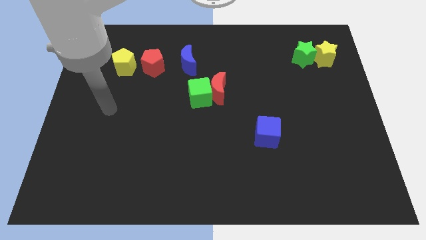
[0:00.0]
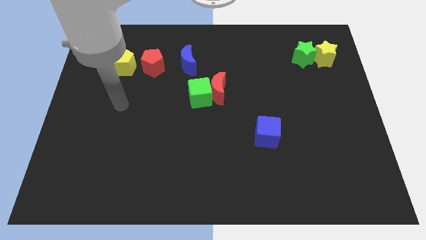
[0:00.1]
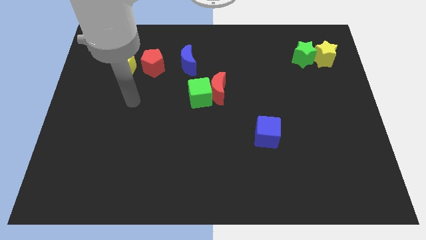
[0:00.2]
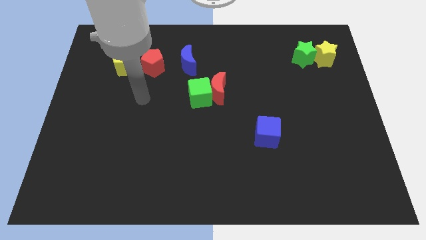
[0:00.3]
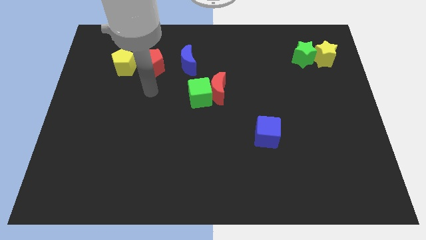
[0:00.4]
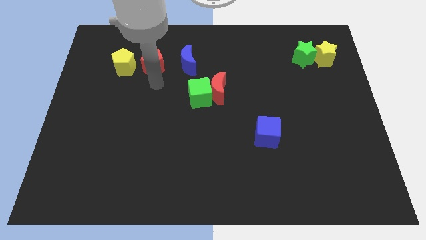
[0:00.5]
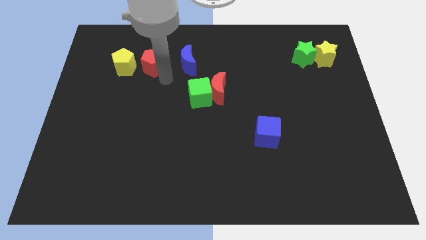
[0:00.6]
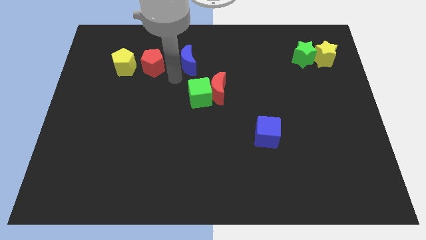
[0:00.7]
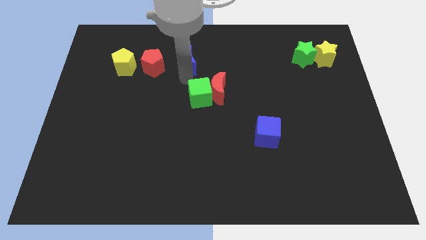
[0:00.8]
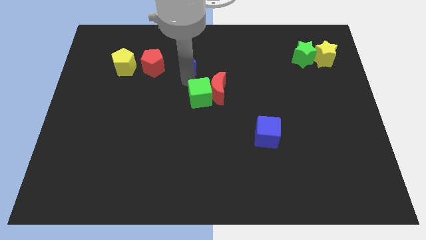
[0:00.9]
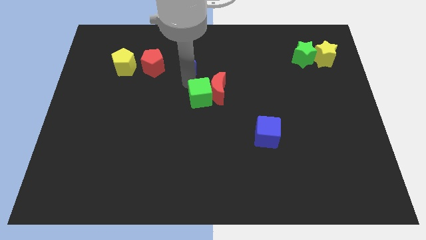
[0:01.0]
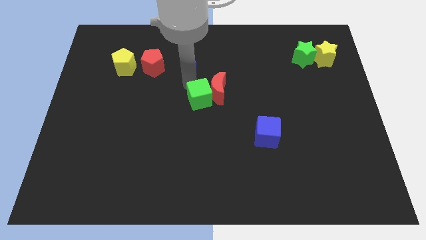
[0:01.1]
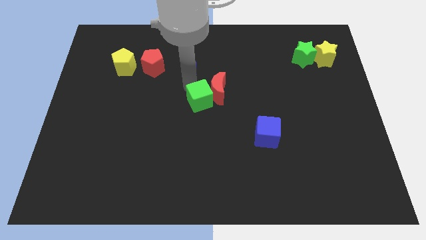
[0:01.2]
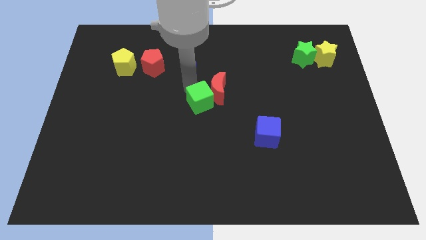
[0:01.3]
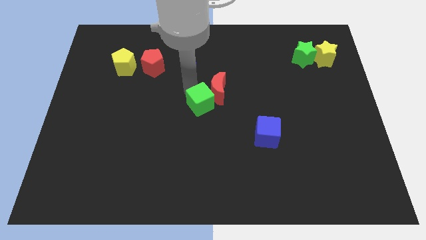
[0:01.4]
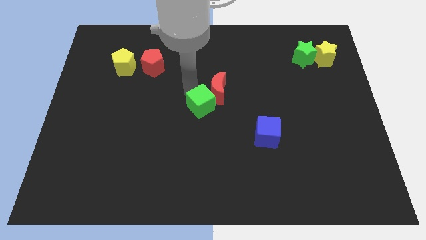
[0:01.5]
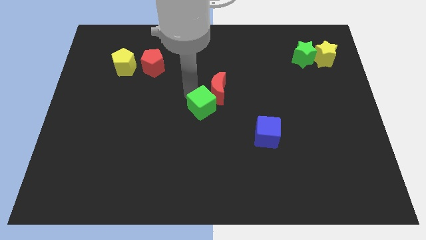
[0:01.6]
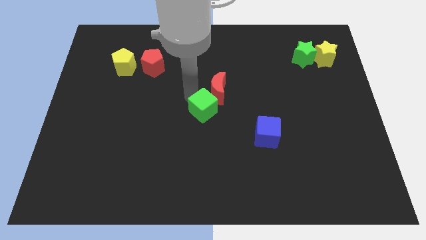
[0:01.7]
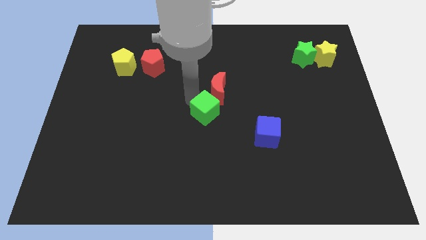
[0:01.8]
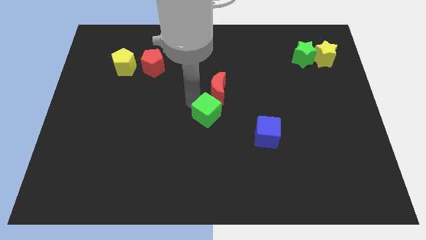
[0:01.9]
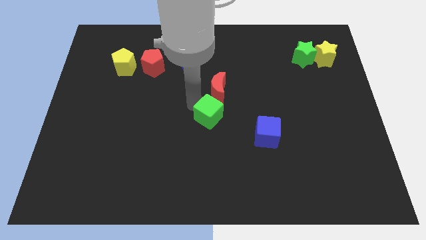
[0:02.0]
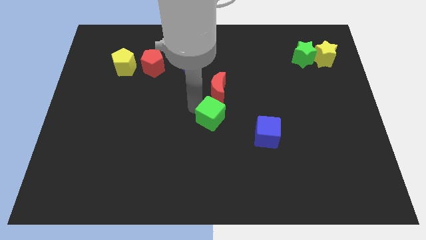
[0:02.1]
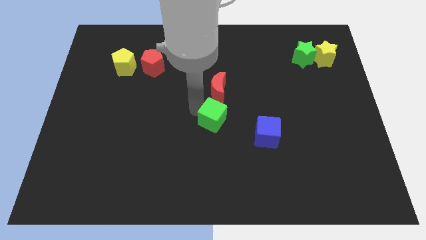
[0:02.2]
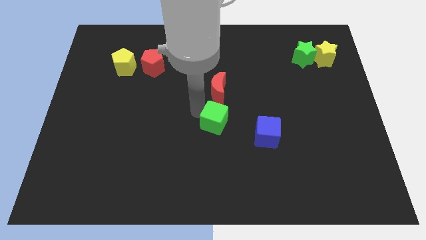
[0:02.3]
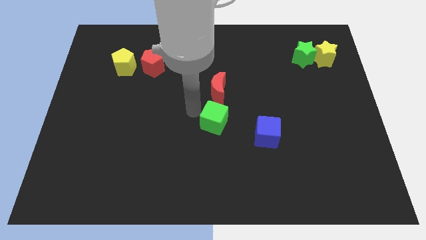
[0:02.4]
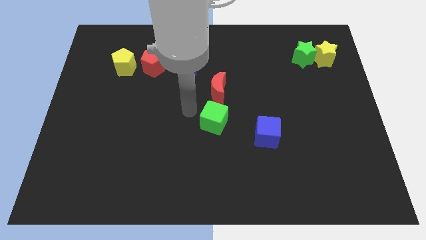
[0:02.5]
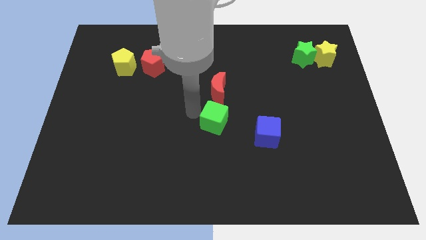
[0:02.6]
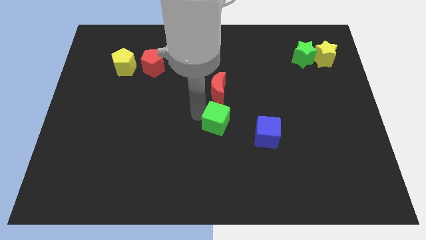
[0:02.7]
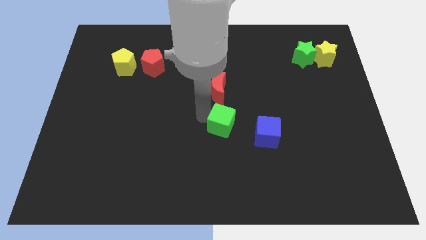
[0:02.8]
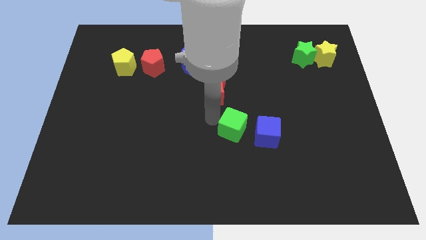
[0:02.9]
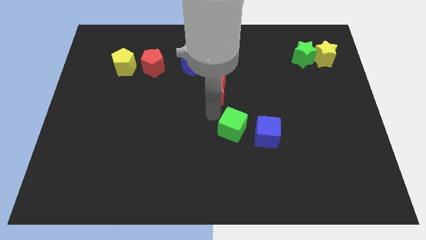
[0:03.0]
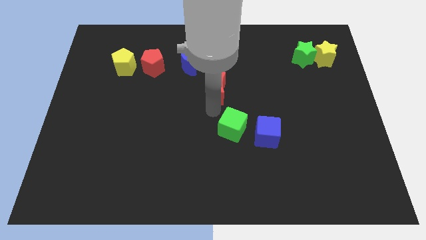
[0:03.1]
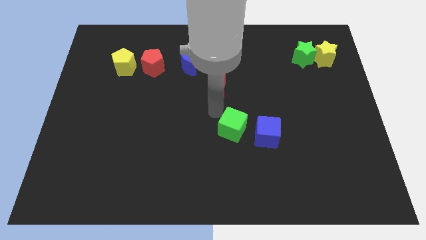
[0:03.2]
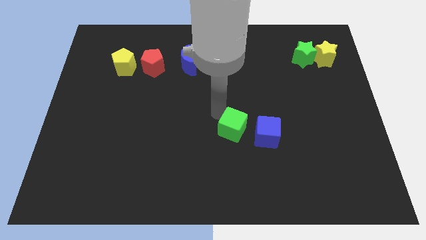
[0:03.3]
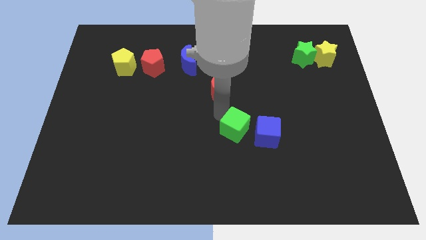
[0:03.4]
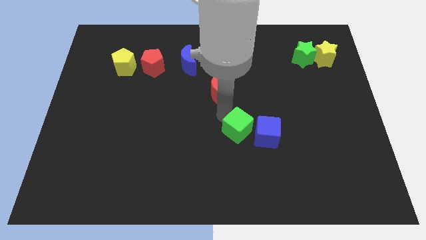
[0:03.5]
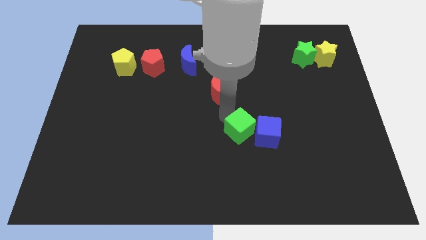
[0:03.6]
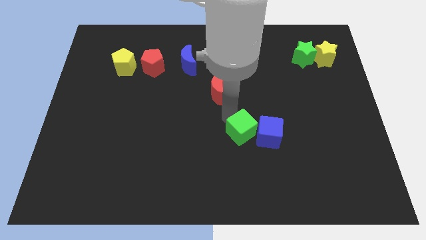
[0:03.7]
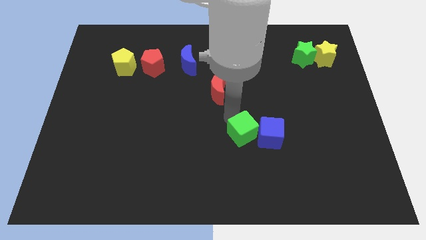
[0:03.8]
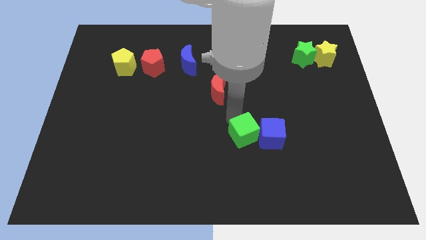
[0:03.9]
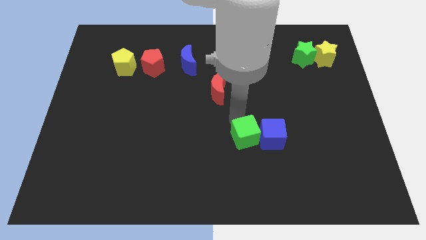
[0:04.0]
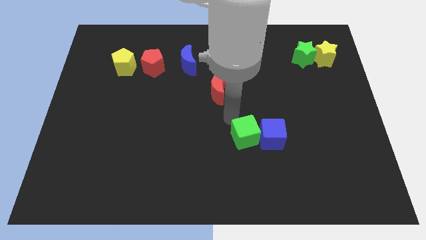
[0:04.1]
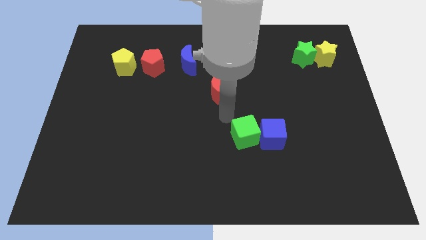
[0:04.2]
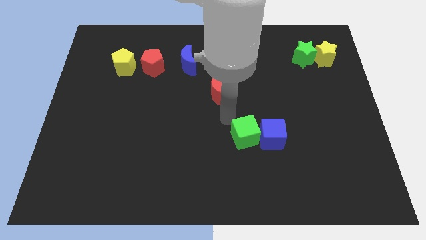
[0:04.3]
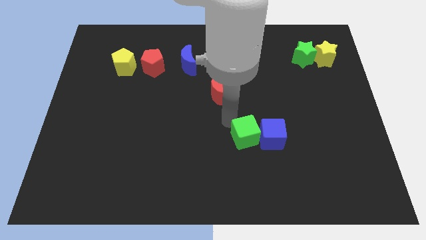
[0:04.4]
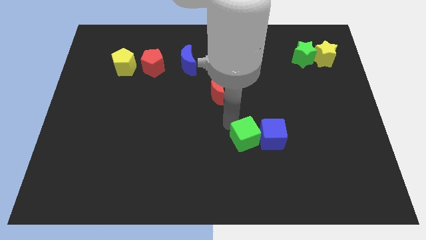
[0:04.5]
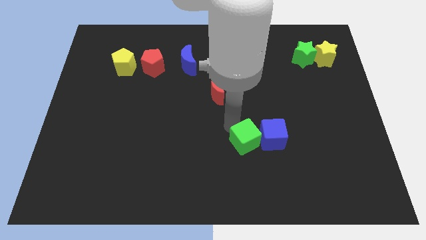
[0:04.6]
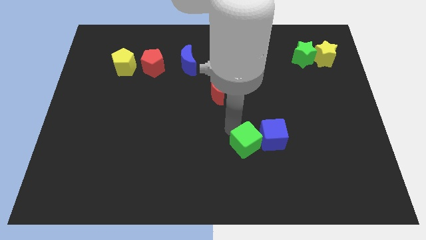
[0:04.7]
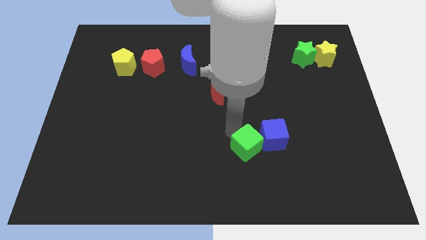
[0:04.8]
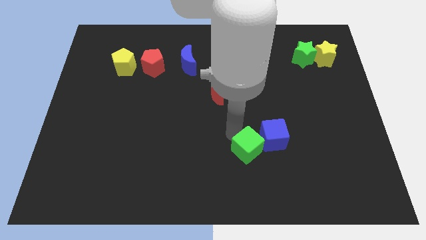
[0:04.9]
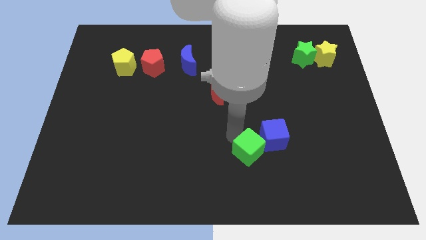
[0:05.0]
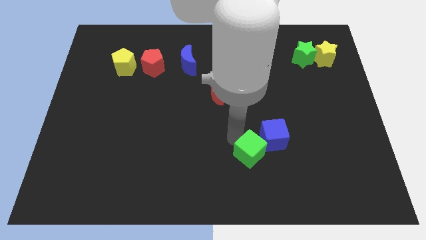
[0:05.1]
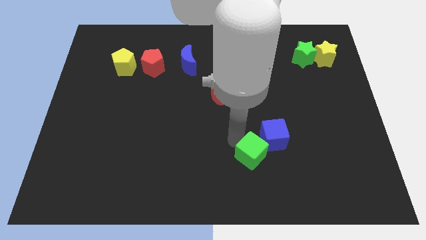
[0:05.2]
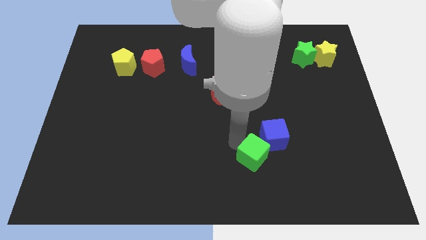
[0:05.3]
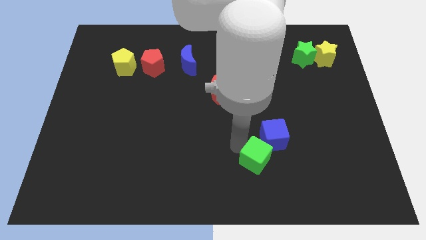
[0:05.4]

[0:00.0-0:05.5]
move the green cube down and right diagonally

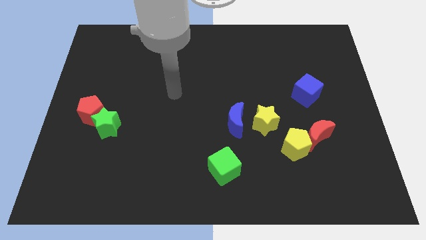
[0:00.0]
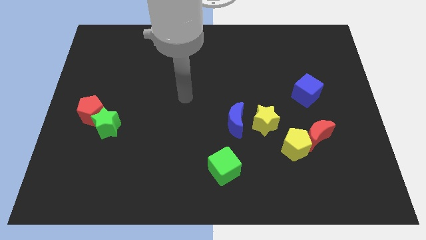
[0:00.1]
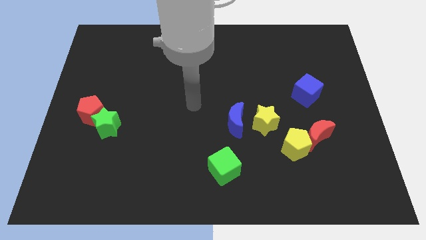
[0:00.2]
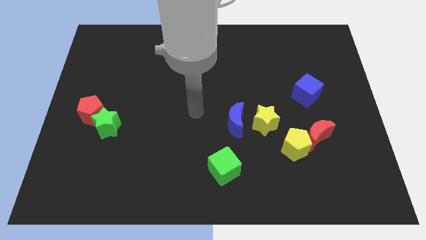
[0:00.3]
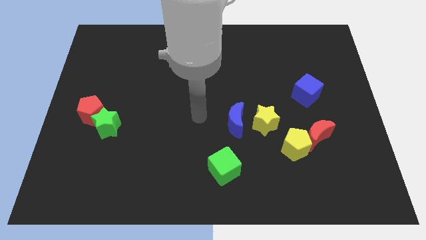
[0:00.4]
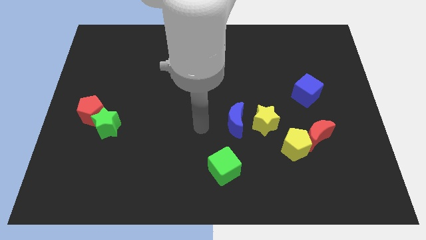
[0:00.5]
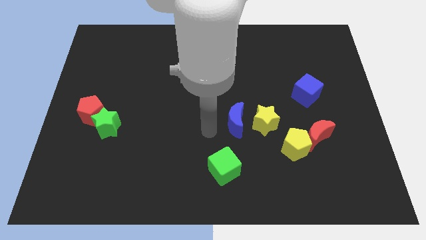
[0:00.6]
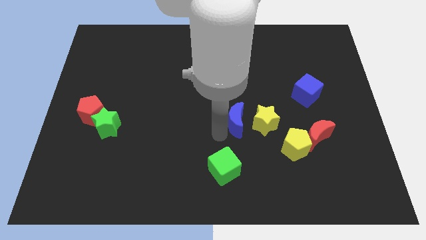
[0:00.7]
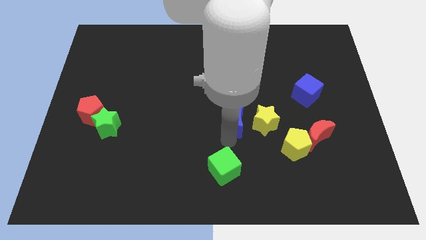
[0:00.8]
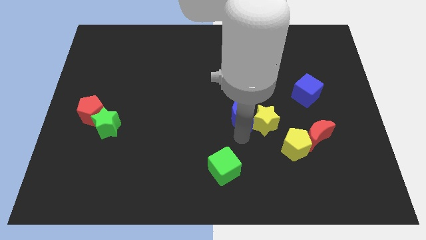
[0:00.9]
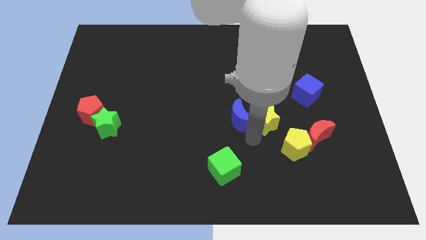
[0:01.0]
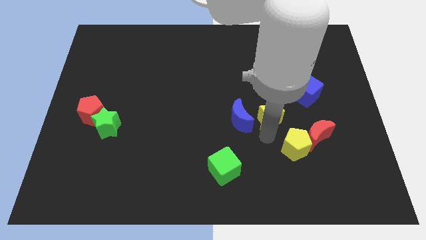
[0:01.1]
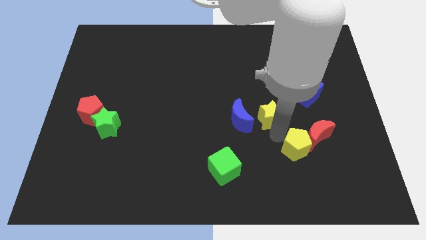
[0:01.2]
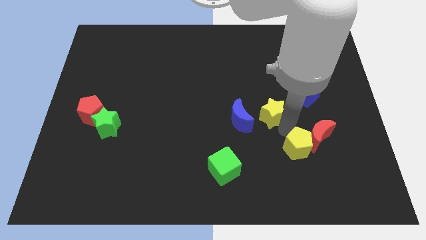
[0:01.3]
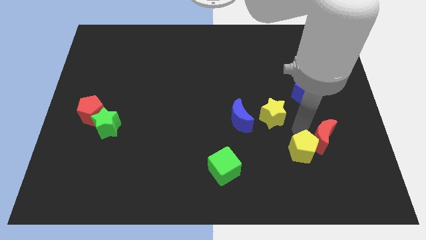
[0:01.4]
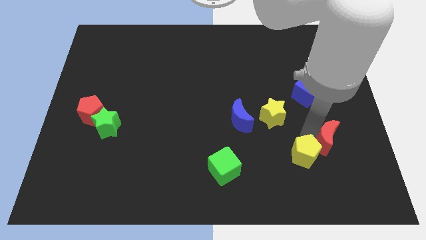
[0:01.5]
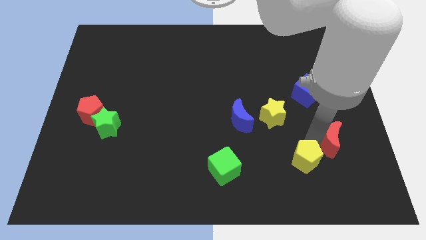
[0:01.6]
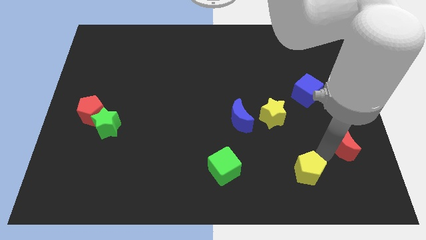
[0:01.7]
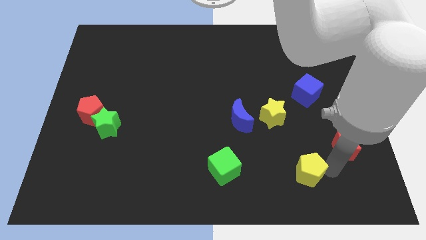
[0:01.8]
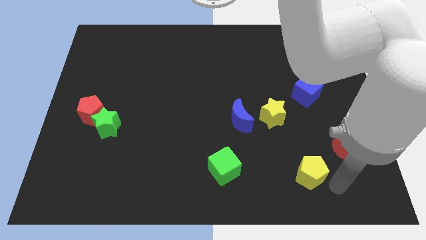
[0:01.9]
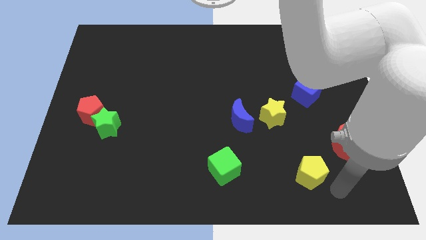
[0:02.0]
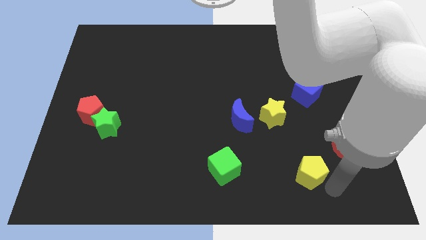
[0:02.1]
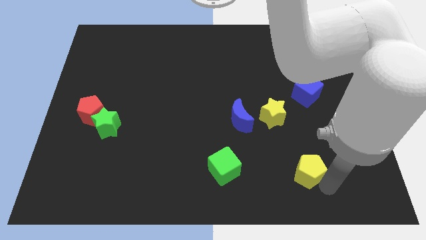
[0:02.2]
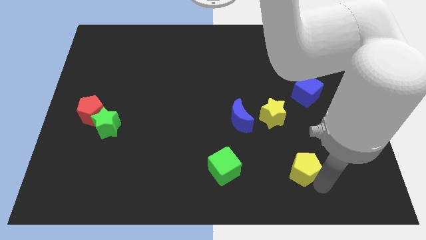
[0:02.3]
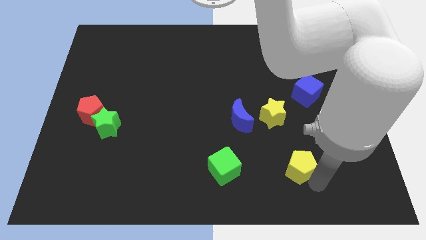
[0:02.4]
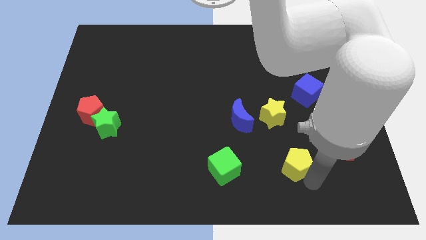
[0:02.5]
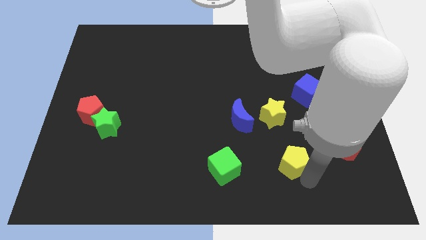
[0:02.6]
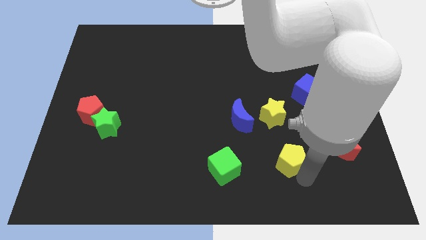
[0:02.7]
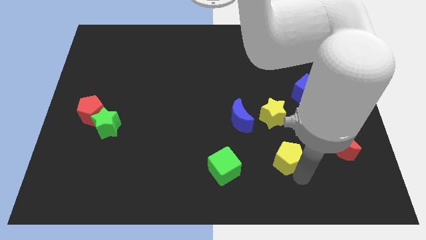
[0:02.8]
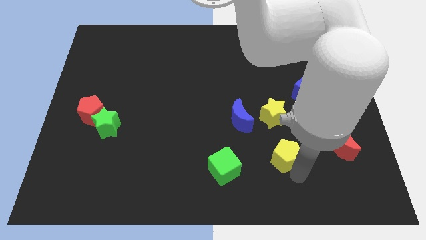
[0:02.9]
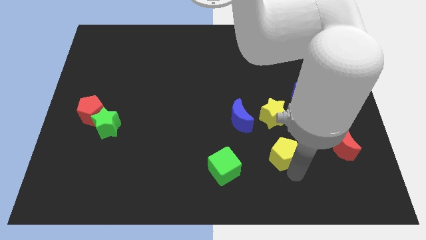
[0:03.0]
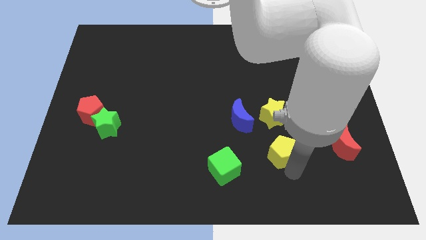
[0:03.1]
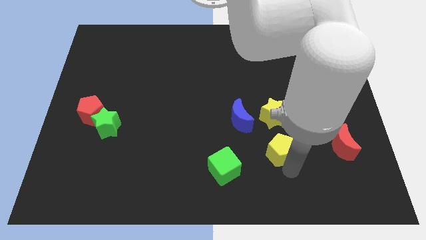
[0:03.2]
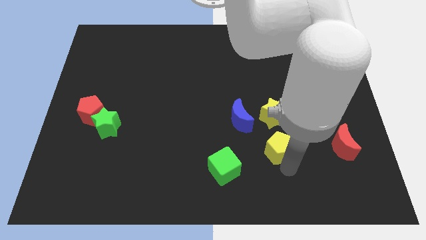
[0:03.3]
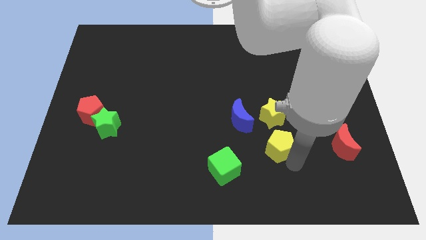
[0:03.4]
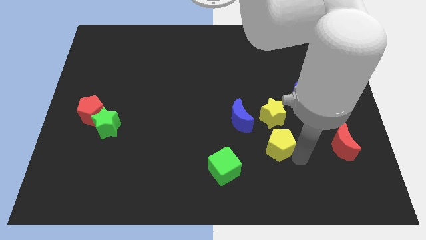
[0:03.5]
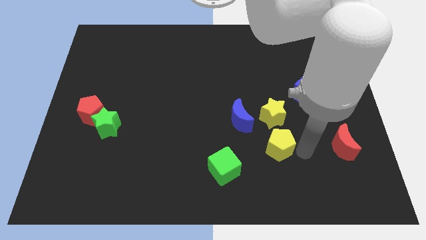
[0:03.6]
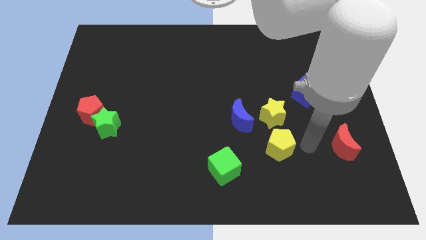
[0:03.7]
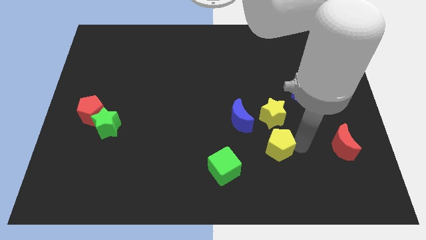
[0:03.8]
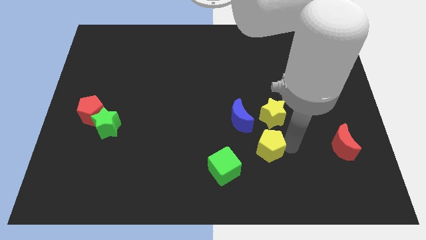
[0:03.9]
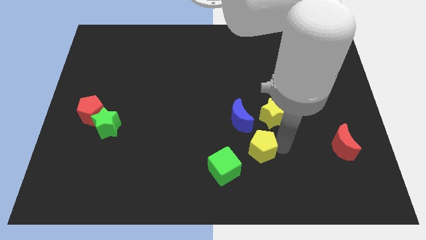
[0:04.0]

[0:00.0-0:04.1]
slightly move the yellow pentagon left
